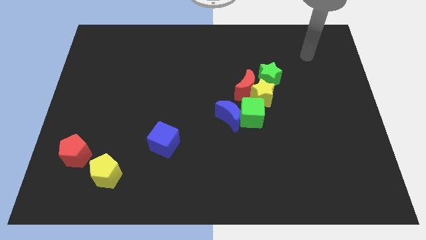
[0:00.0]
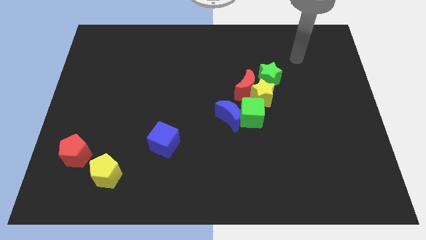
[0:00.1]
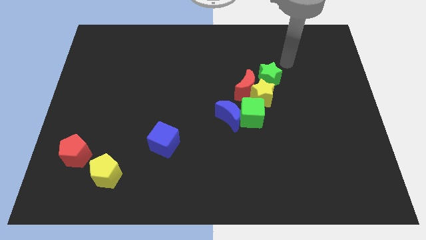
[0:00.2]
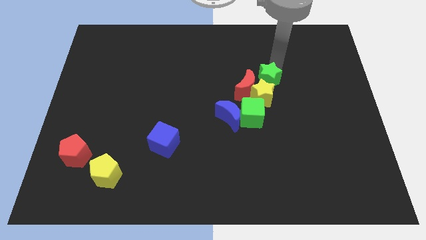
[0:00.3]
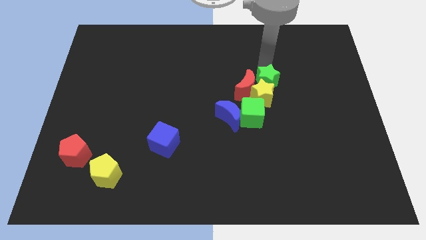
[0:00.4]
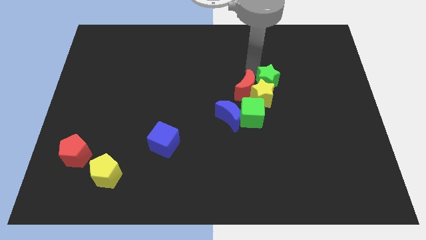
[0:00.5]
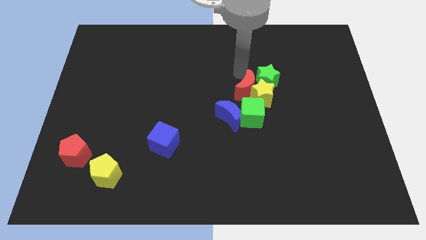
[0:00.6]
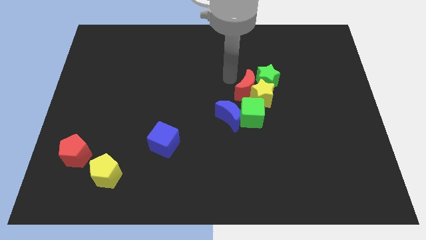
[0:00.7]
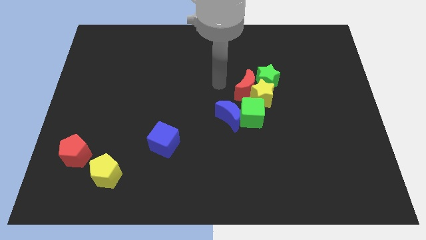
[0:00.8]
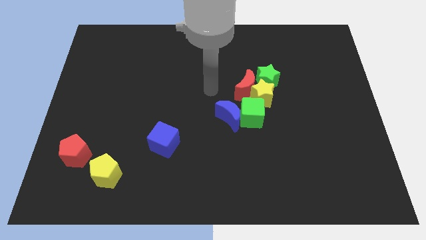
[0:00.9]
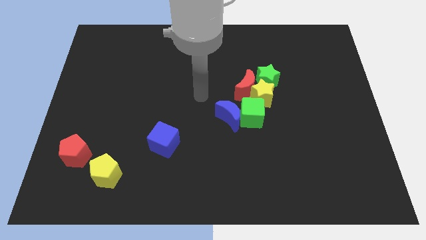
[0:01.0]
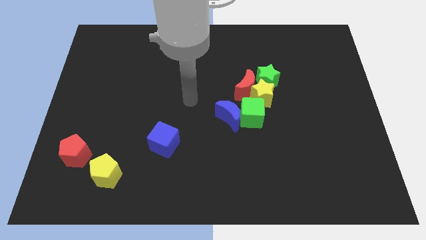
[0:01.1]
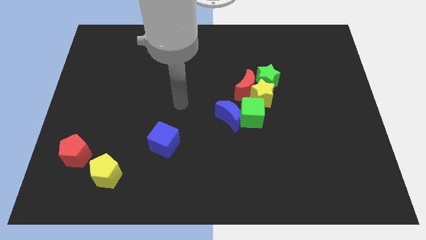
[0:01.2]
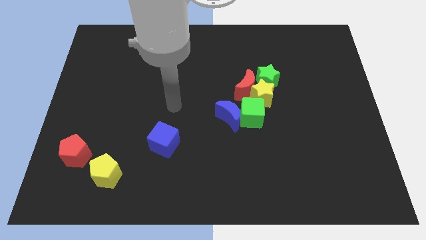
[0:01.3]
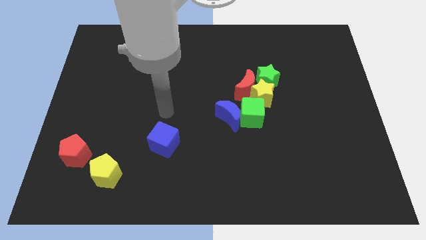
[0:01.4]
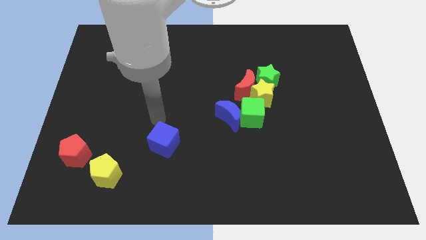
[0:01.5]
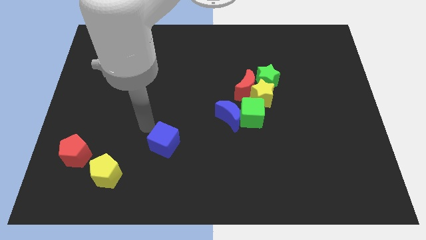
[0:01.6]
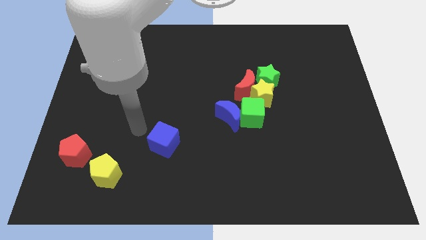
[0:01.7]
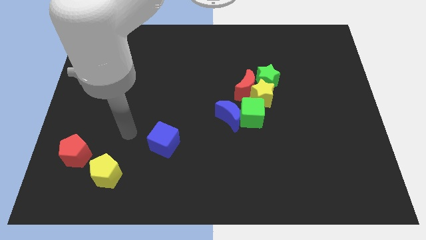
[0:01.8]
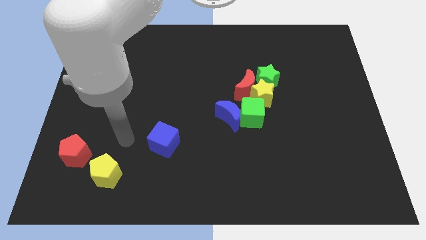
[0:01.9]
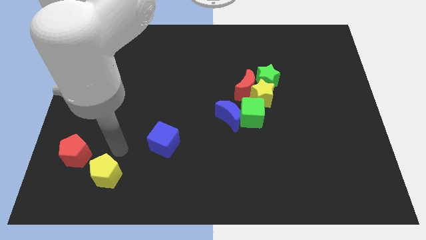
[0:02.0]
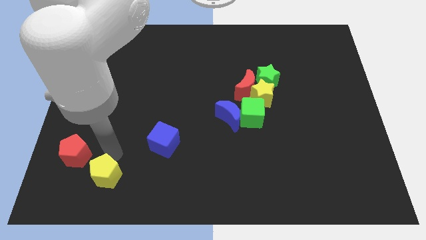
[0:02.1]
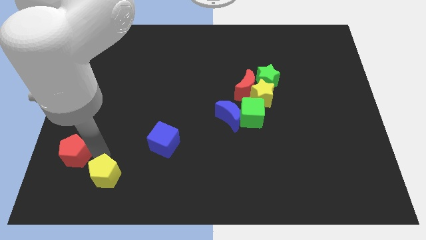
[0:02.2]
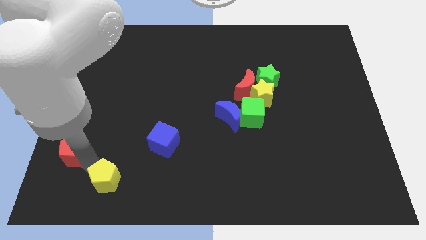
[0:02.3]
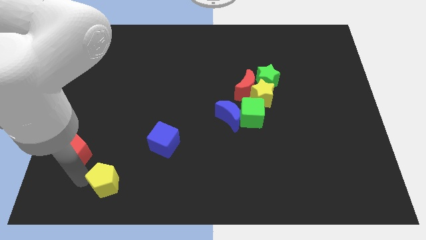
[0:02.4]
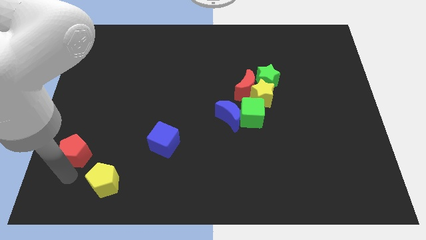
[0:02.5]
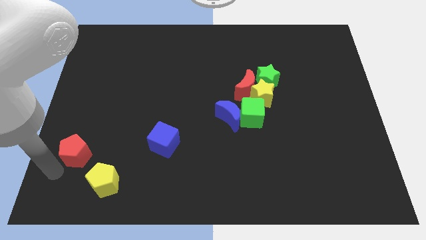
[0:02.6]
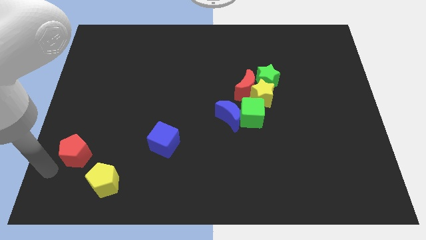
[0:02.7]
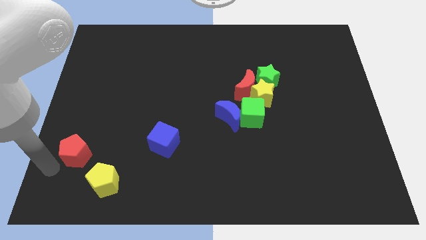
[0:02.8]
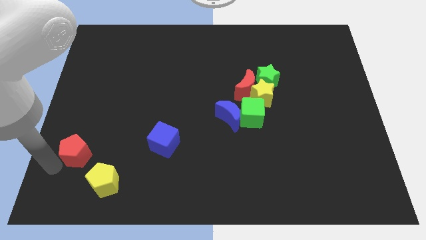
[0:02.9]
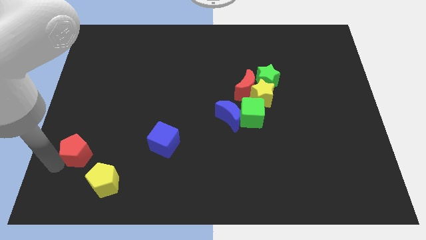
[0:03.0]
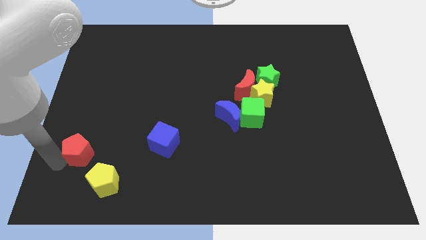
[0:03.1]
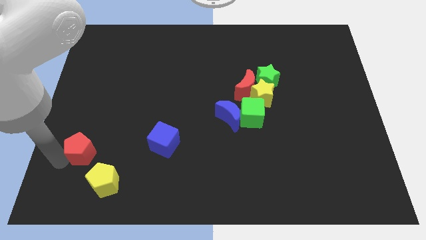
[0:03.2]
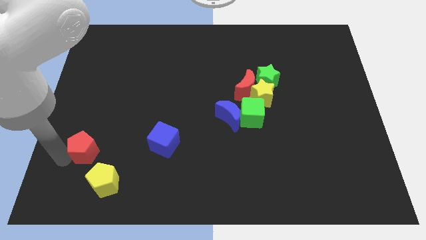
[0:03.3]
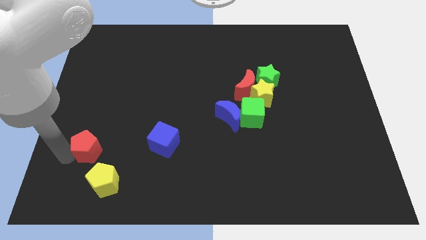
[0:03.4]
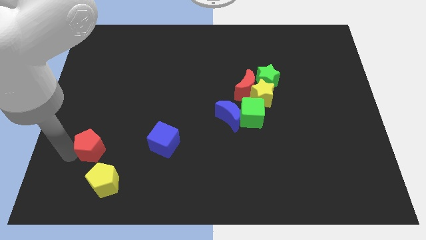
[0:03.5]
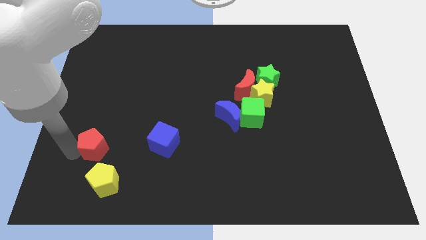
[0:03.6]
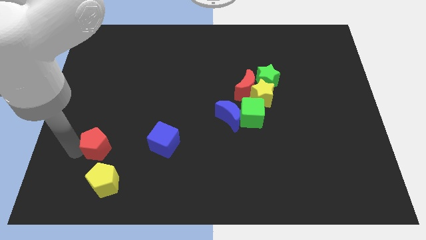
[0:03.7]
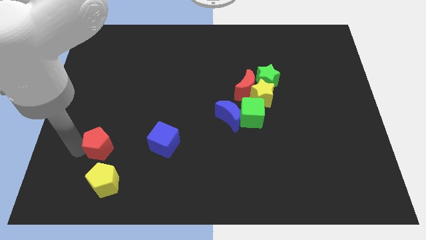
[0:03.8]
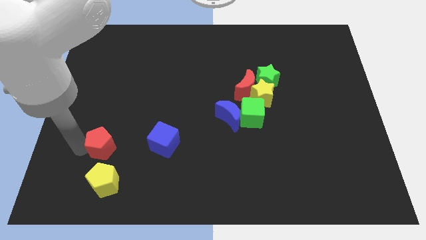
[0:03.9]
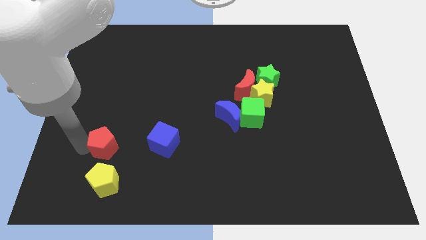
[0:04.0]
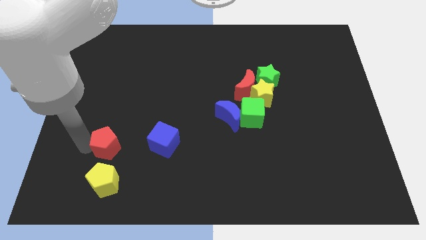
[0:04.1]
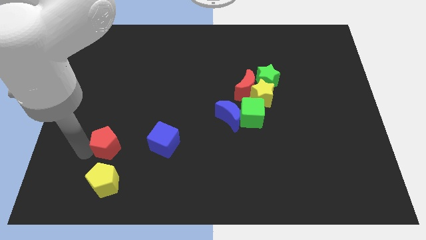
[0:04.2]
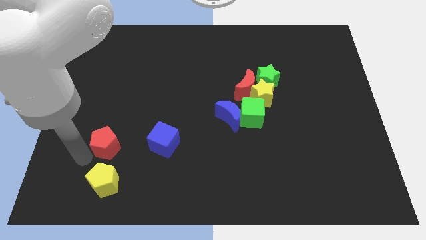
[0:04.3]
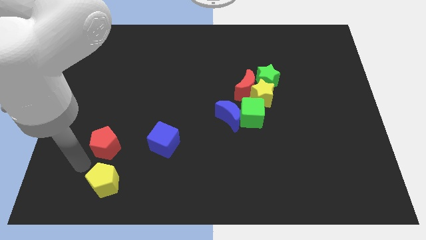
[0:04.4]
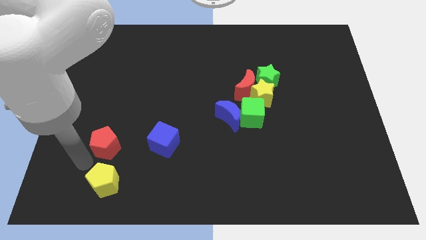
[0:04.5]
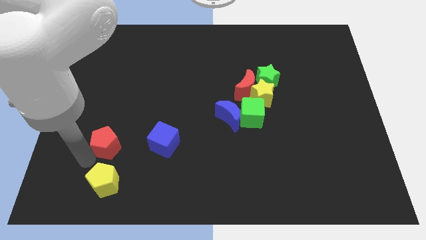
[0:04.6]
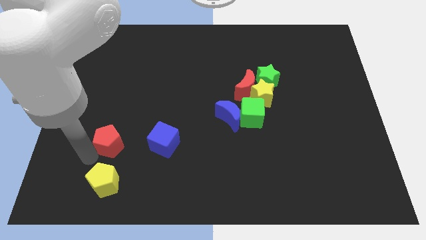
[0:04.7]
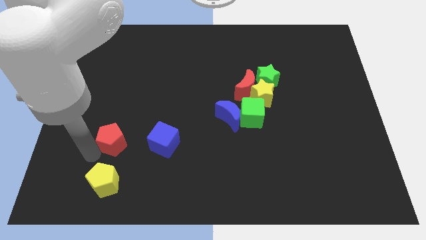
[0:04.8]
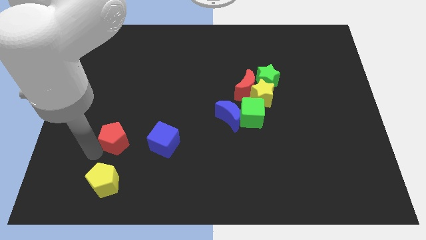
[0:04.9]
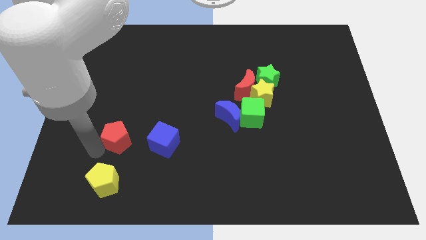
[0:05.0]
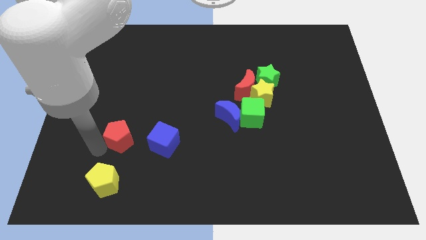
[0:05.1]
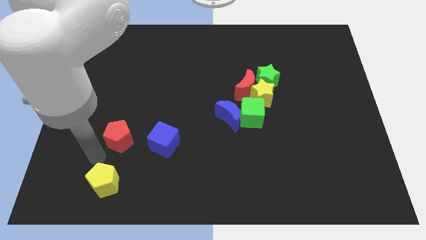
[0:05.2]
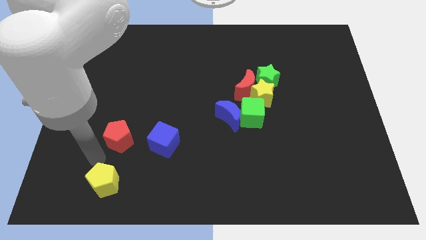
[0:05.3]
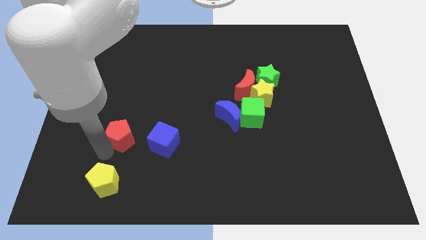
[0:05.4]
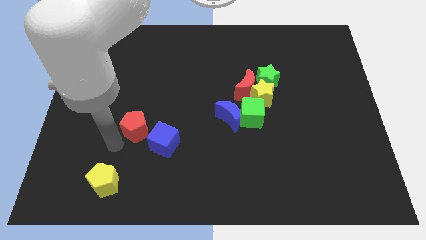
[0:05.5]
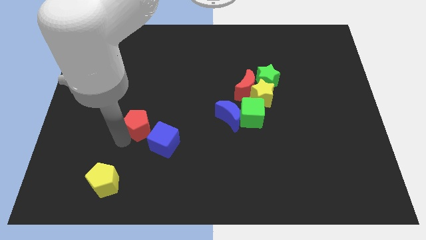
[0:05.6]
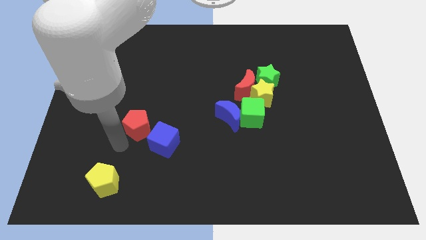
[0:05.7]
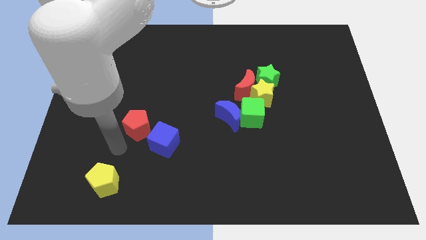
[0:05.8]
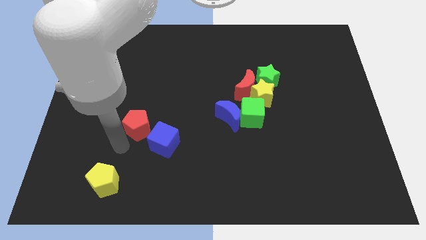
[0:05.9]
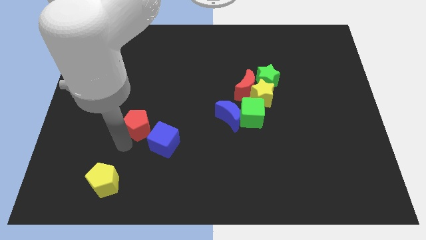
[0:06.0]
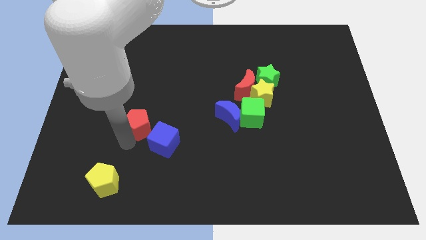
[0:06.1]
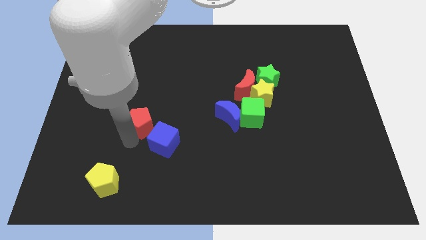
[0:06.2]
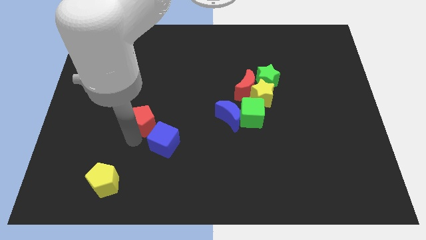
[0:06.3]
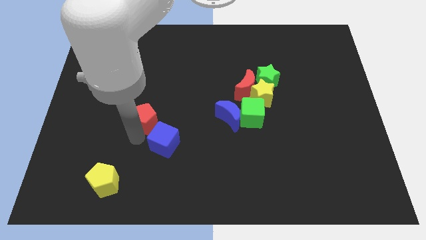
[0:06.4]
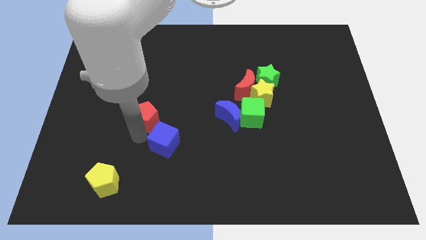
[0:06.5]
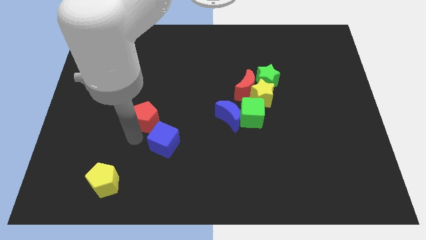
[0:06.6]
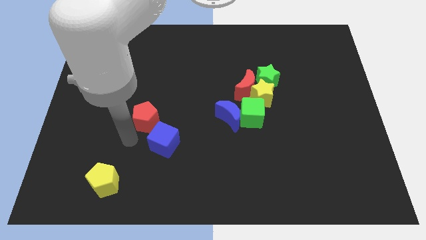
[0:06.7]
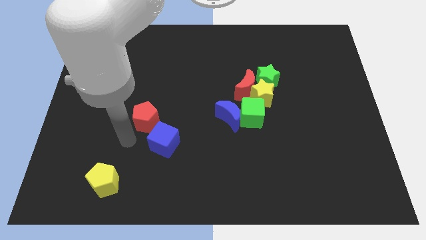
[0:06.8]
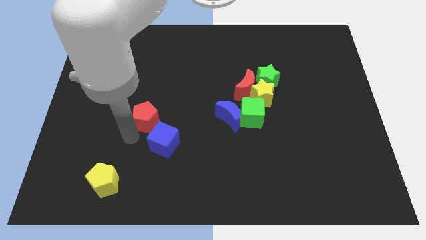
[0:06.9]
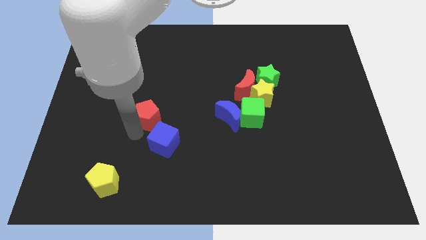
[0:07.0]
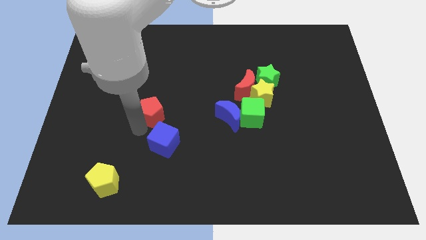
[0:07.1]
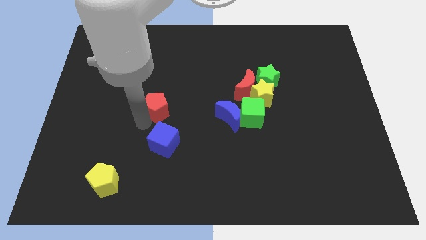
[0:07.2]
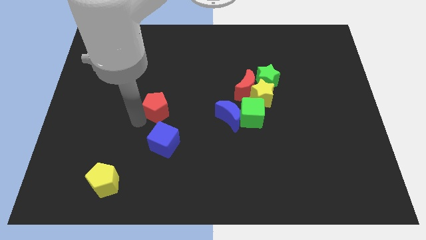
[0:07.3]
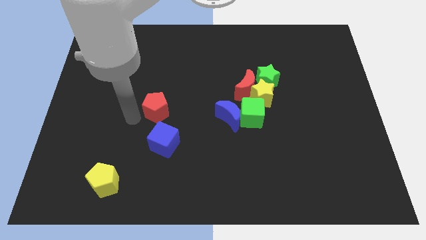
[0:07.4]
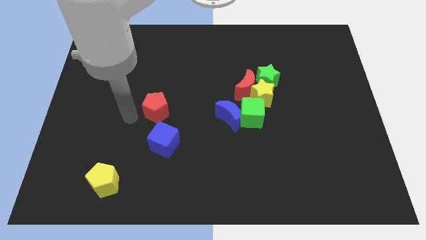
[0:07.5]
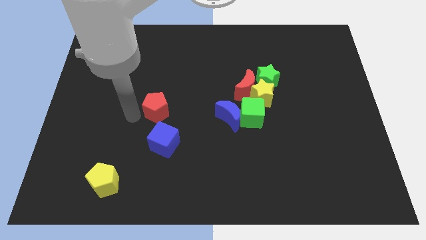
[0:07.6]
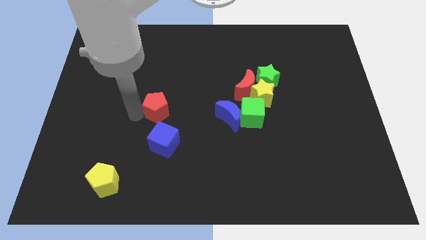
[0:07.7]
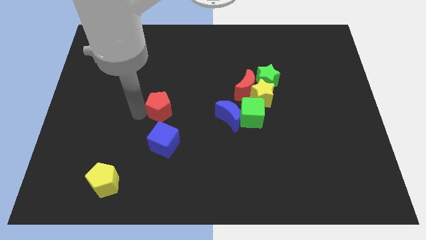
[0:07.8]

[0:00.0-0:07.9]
move the red pentagon to the center of the board
